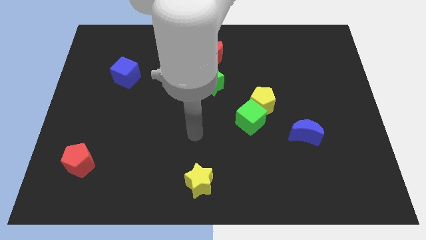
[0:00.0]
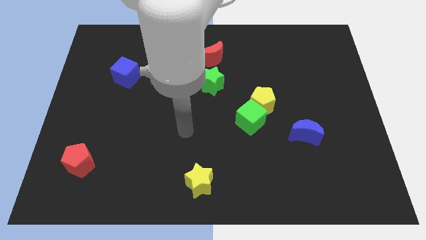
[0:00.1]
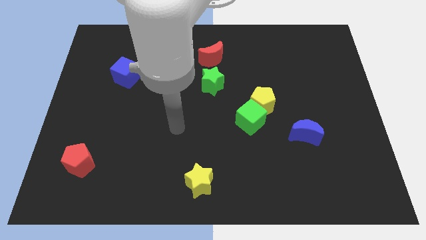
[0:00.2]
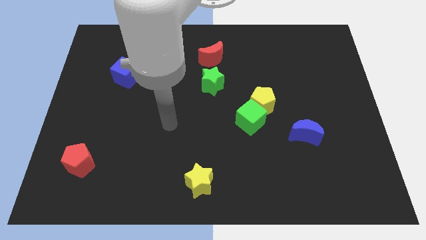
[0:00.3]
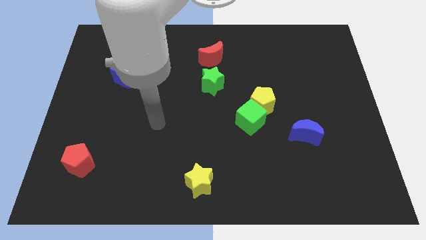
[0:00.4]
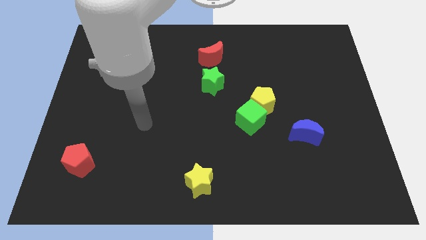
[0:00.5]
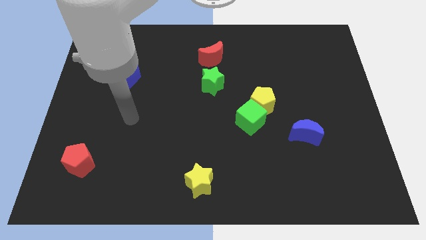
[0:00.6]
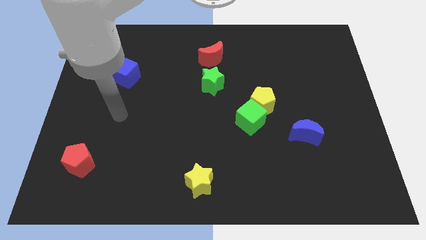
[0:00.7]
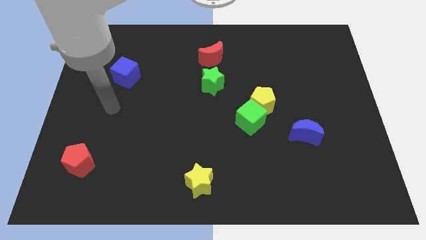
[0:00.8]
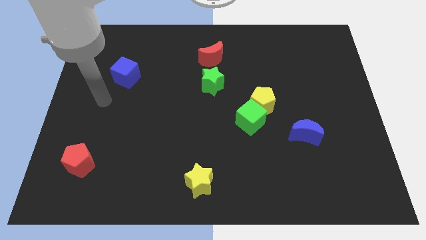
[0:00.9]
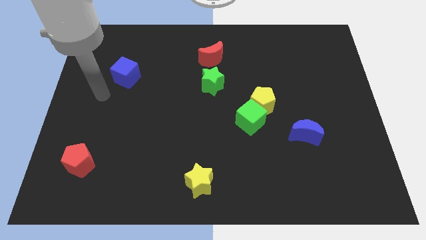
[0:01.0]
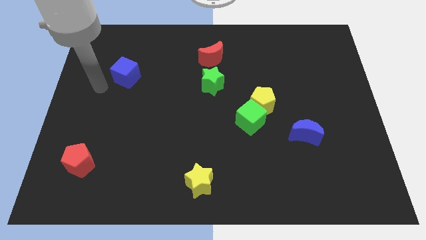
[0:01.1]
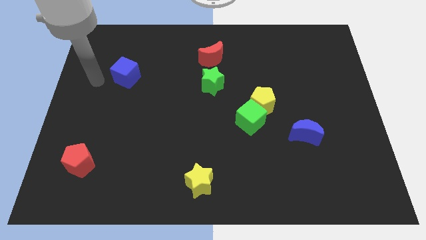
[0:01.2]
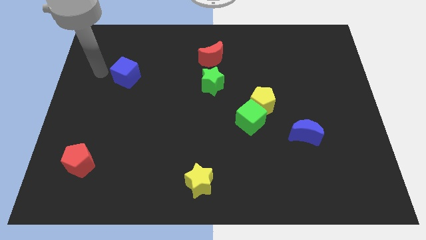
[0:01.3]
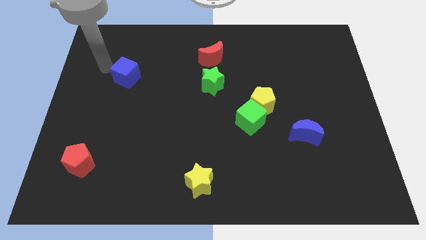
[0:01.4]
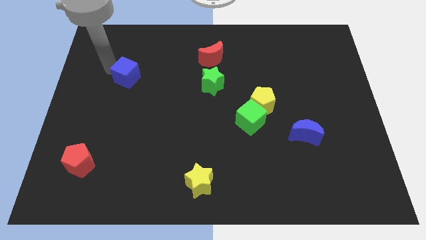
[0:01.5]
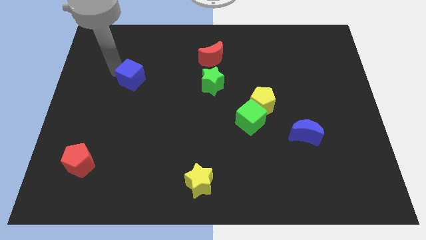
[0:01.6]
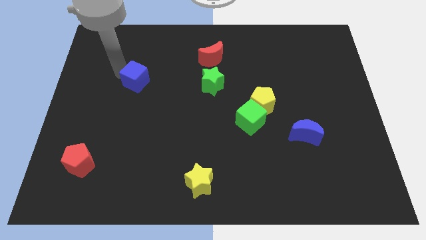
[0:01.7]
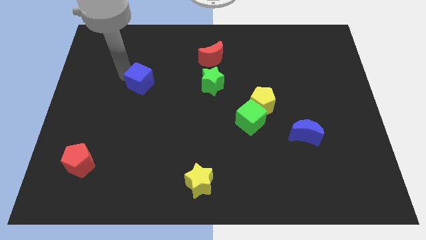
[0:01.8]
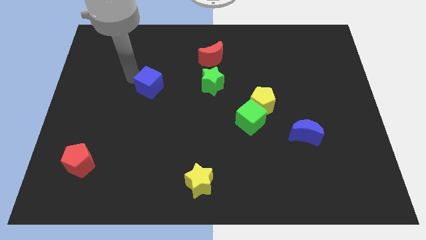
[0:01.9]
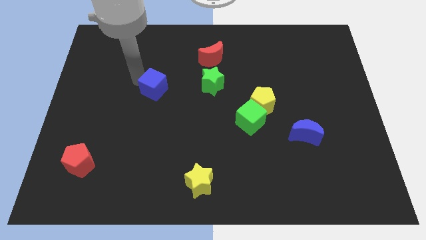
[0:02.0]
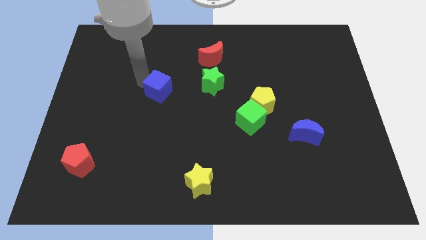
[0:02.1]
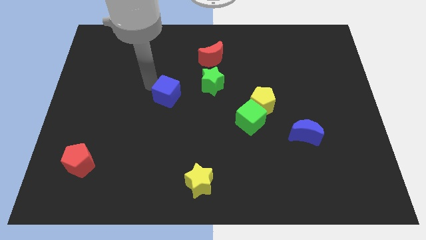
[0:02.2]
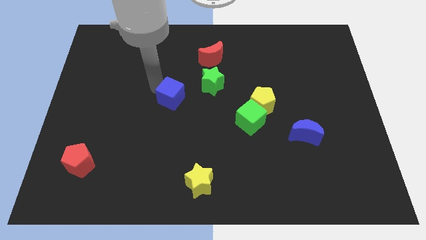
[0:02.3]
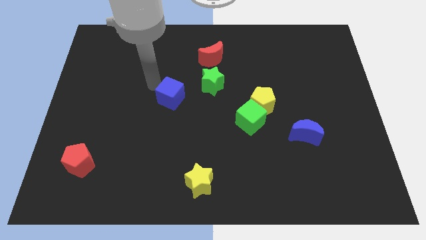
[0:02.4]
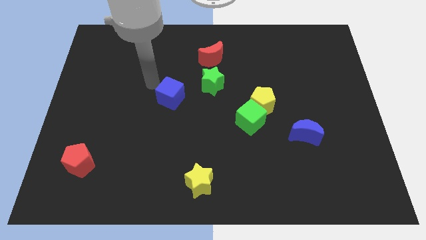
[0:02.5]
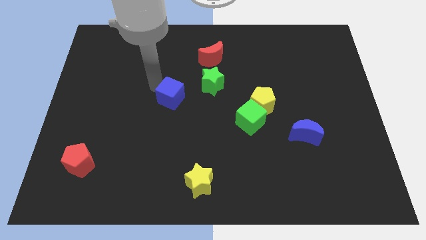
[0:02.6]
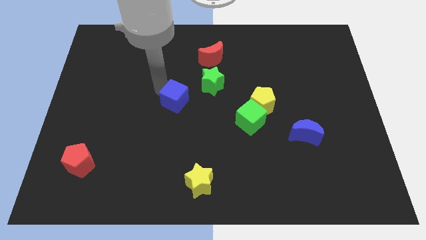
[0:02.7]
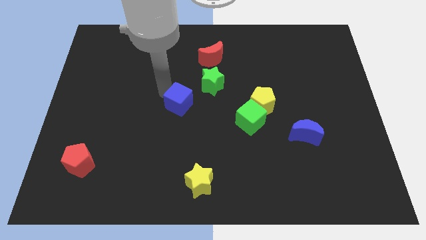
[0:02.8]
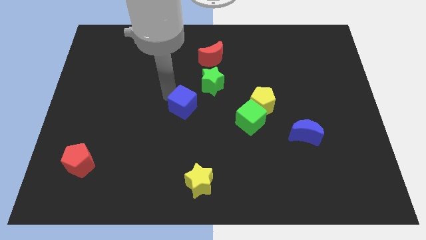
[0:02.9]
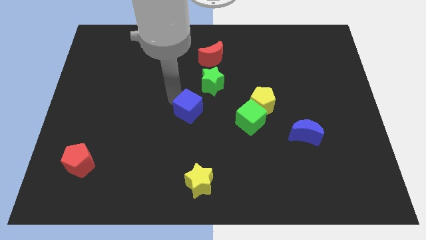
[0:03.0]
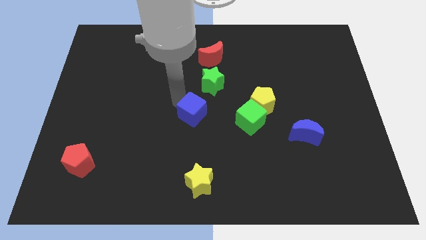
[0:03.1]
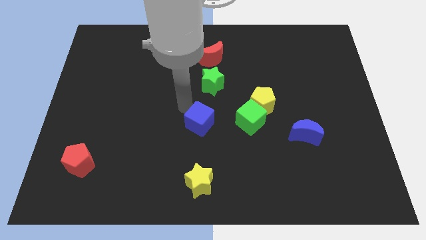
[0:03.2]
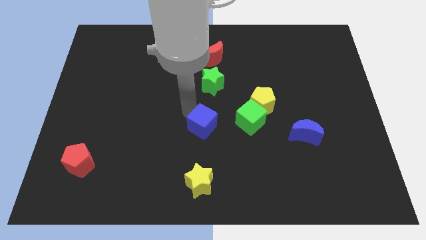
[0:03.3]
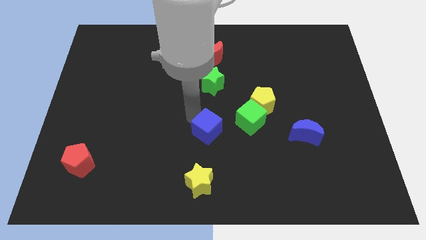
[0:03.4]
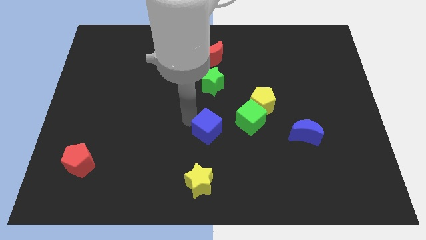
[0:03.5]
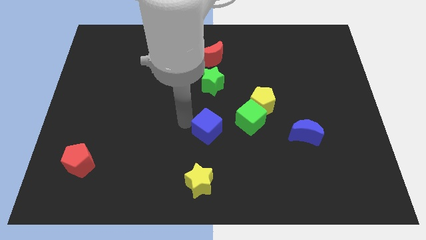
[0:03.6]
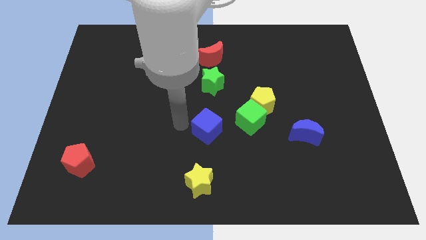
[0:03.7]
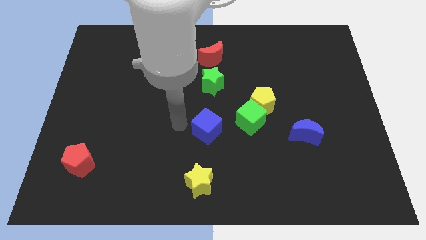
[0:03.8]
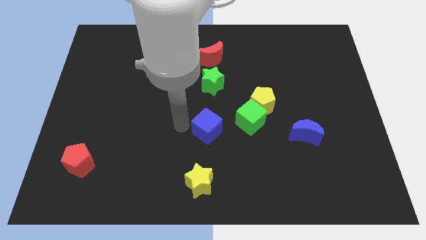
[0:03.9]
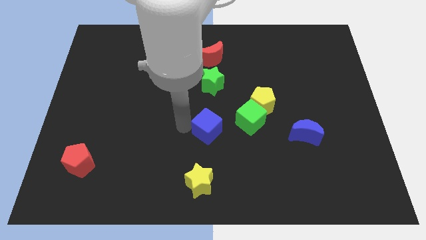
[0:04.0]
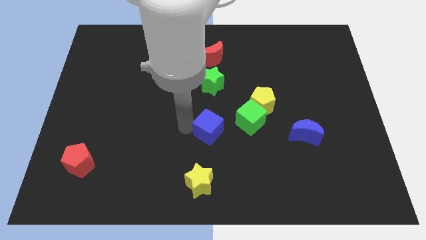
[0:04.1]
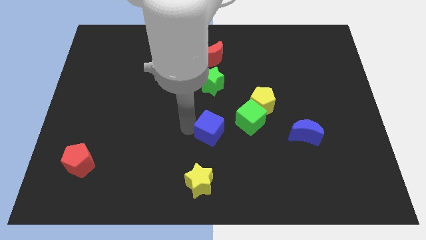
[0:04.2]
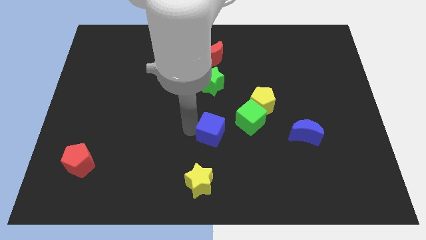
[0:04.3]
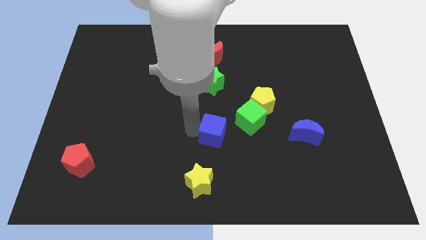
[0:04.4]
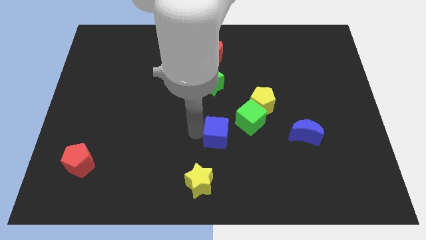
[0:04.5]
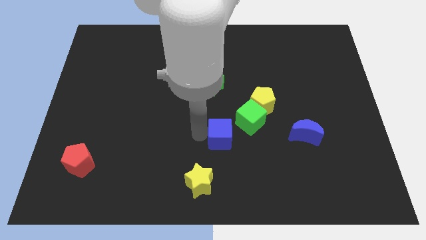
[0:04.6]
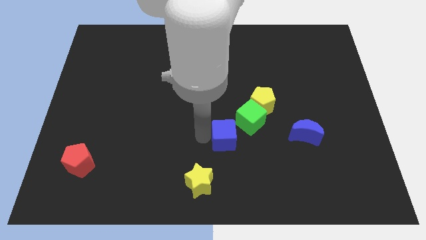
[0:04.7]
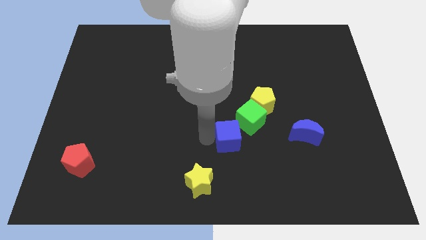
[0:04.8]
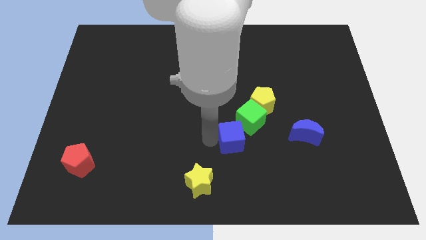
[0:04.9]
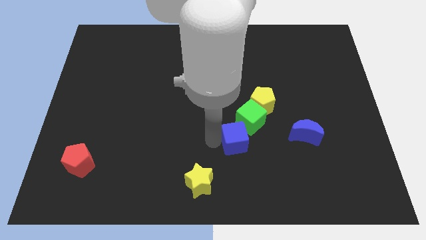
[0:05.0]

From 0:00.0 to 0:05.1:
move the blue cube to the left side of the blue moon

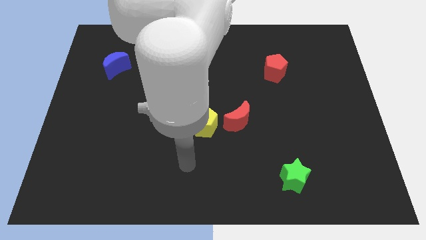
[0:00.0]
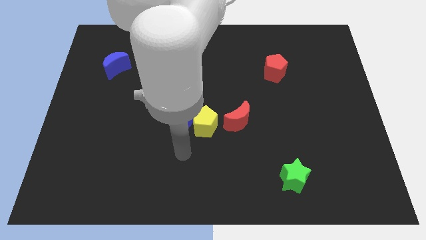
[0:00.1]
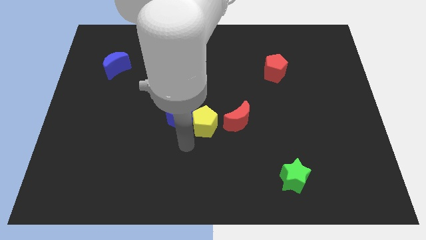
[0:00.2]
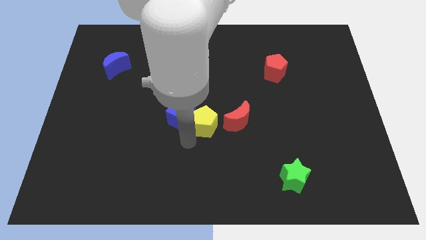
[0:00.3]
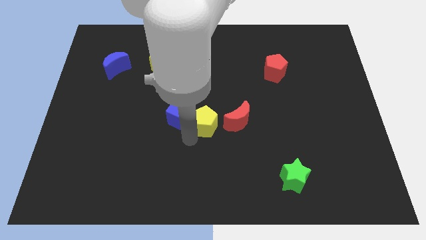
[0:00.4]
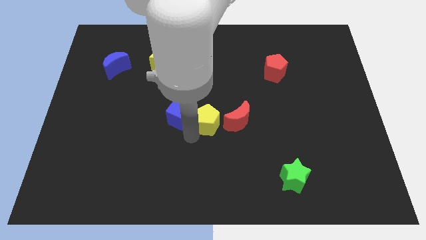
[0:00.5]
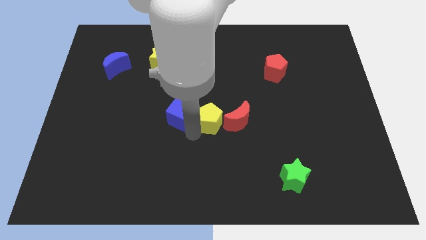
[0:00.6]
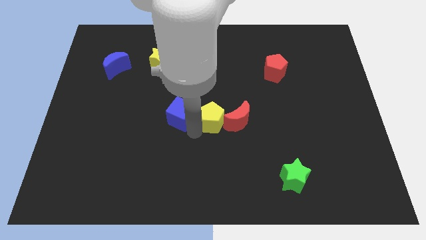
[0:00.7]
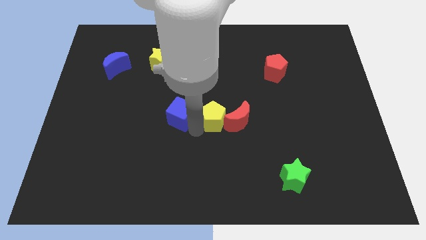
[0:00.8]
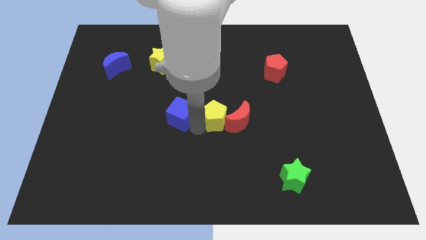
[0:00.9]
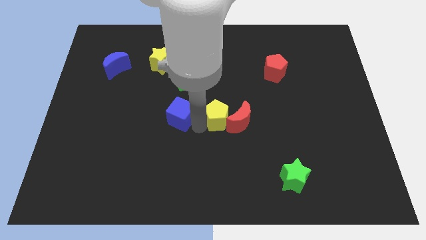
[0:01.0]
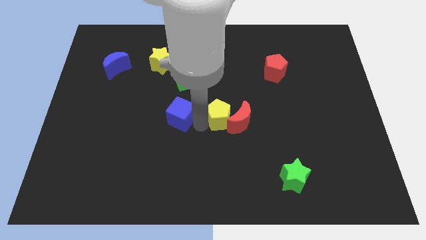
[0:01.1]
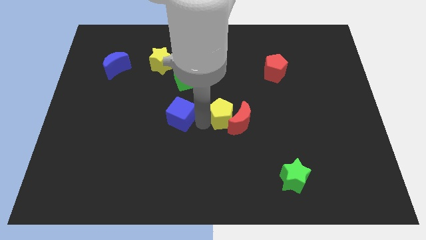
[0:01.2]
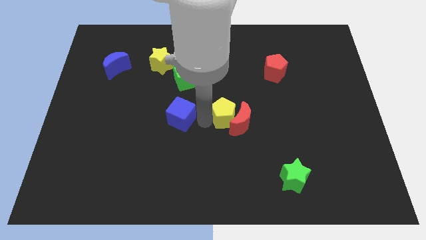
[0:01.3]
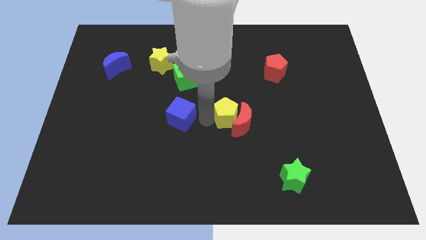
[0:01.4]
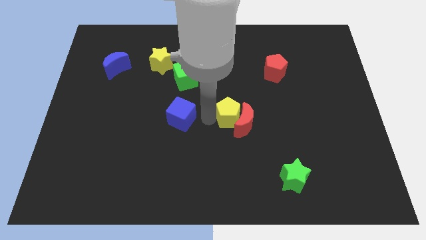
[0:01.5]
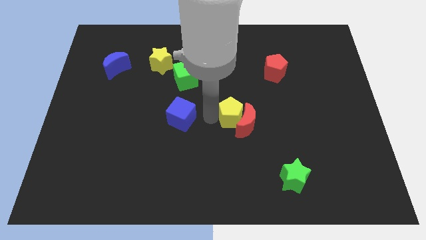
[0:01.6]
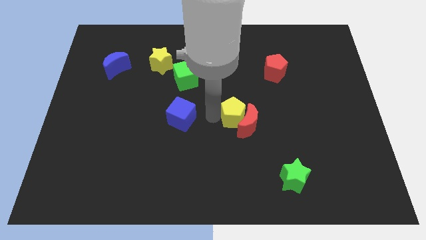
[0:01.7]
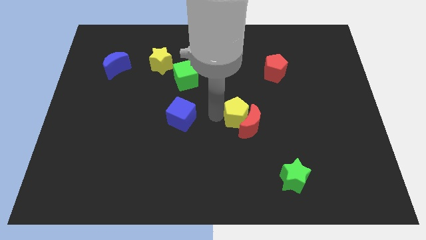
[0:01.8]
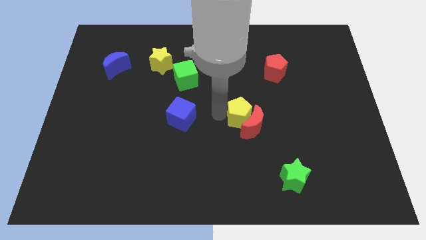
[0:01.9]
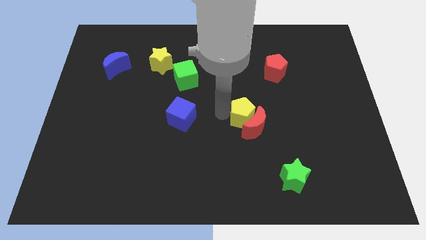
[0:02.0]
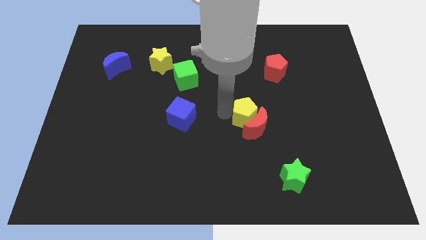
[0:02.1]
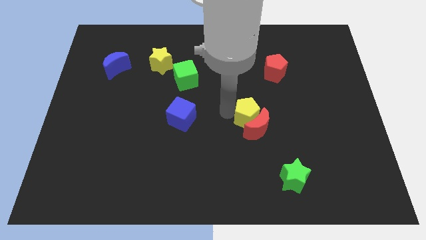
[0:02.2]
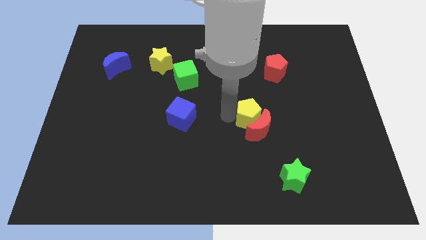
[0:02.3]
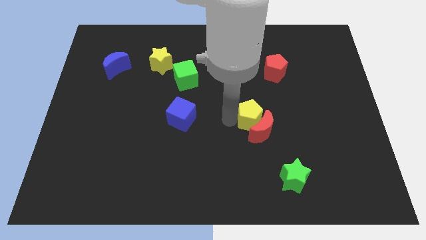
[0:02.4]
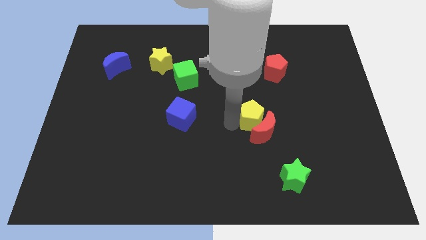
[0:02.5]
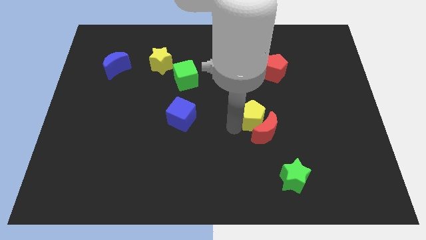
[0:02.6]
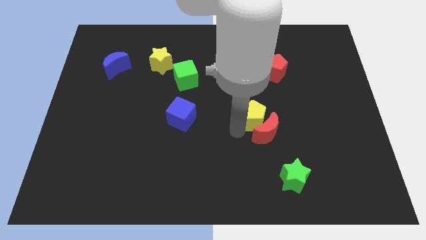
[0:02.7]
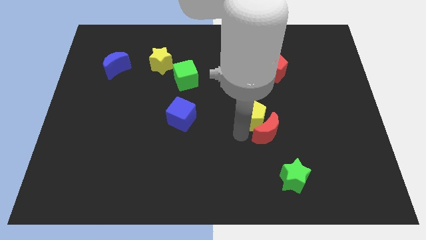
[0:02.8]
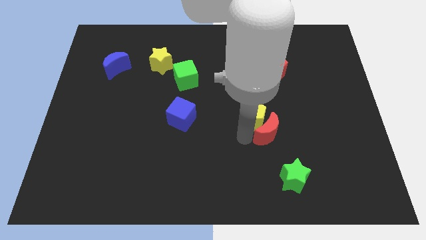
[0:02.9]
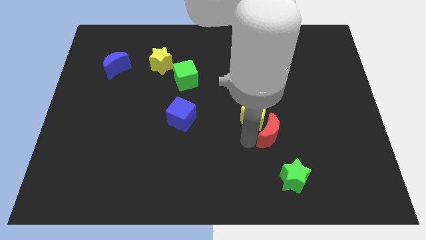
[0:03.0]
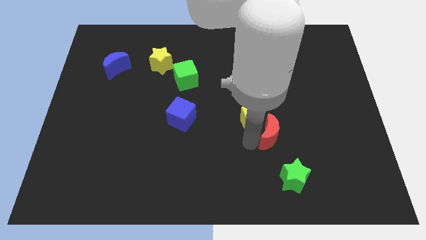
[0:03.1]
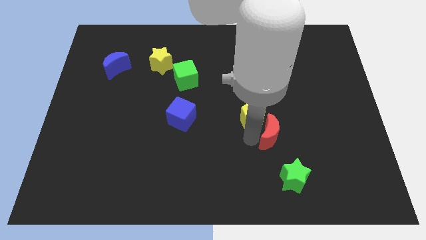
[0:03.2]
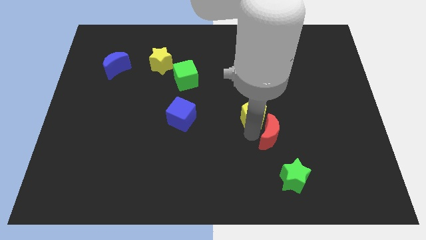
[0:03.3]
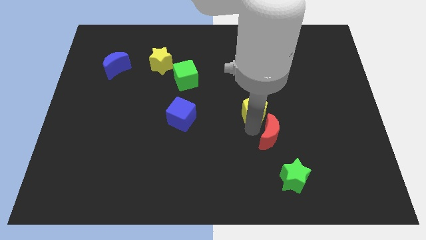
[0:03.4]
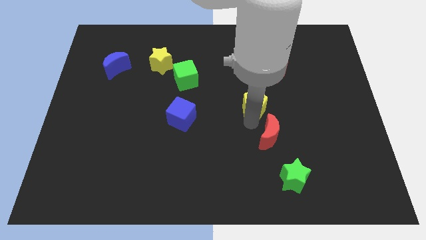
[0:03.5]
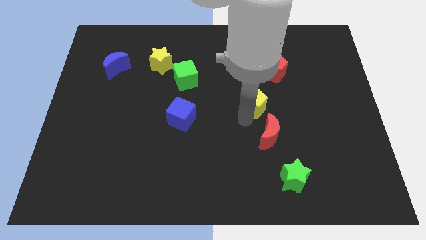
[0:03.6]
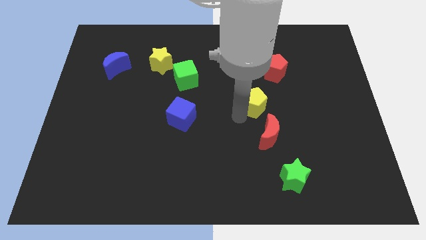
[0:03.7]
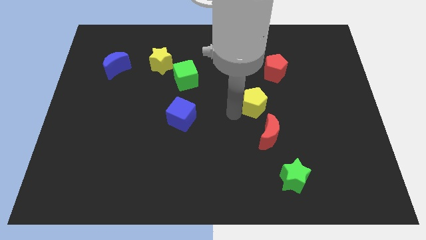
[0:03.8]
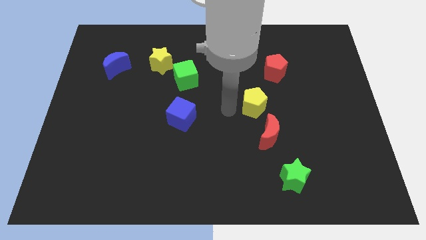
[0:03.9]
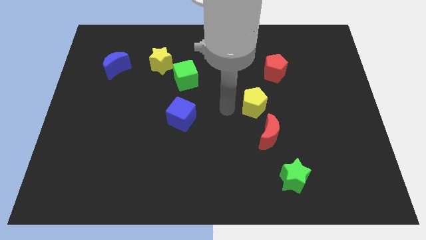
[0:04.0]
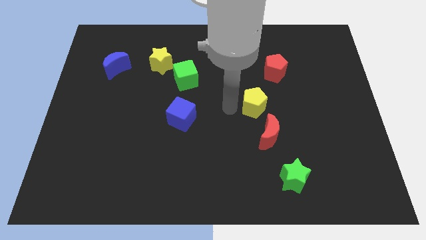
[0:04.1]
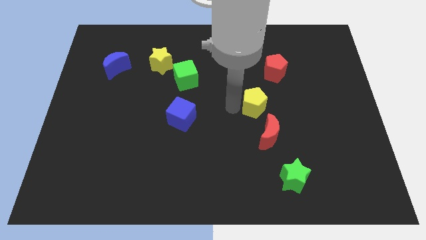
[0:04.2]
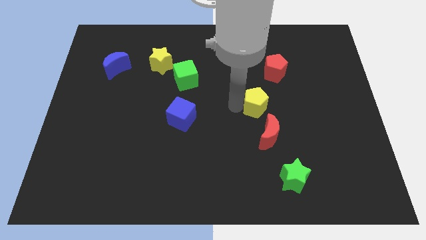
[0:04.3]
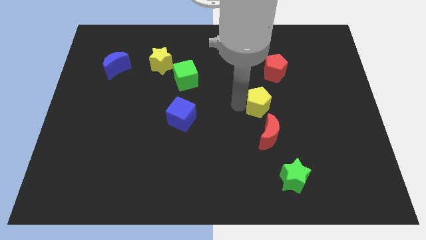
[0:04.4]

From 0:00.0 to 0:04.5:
slide the yellow pentagon to the bottom side of the red pentagon
